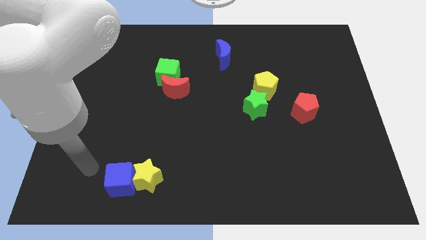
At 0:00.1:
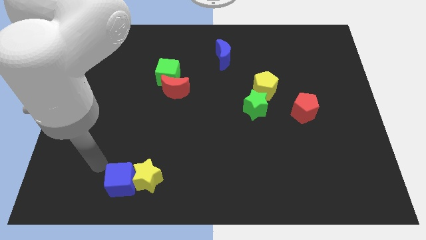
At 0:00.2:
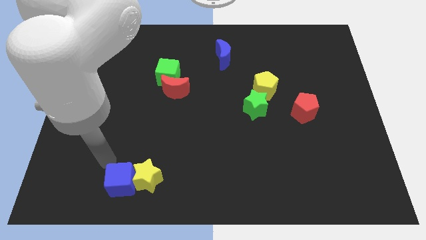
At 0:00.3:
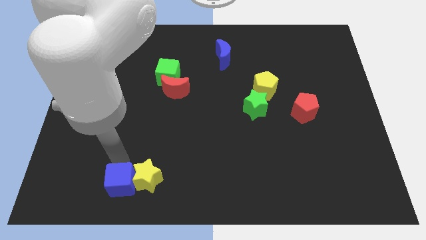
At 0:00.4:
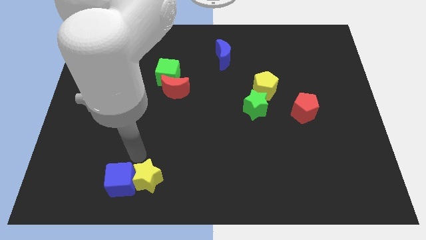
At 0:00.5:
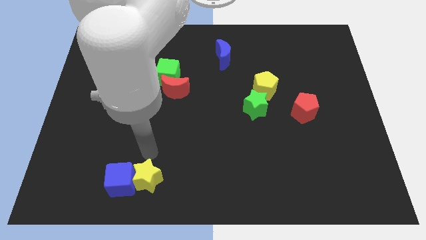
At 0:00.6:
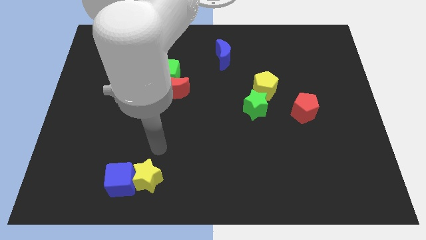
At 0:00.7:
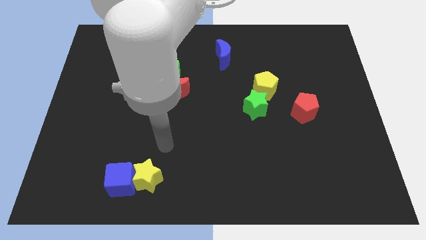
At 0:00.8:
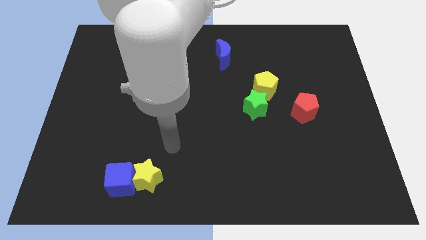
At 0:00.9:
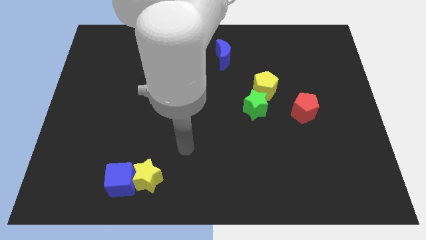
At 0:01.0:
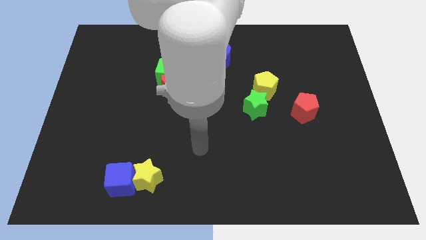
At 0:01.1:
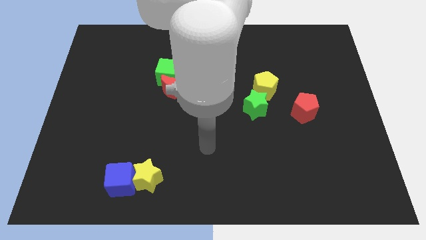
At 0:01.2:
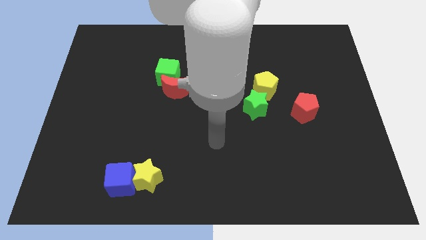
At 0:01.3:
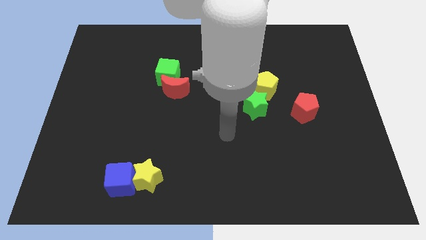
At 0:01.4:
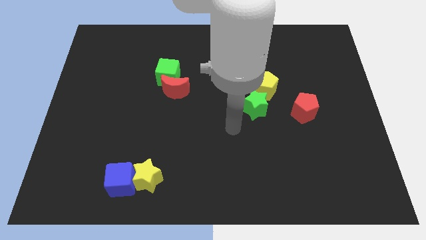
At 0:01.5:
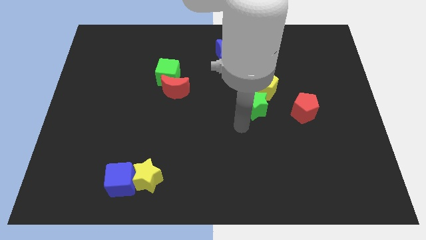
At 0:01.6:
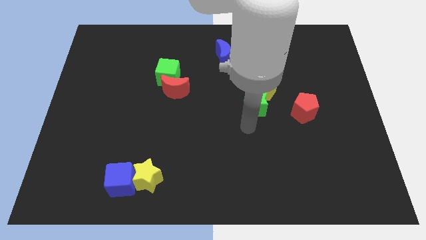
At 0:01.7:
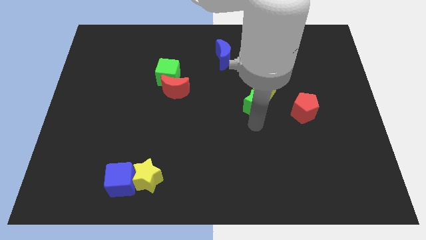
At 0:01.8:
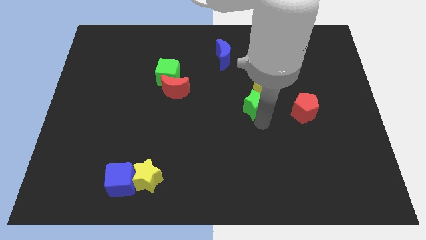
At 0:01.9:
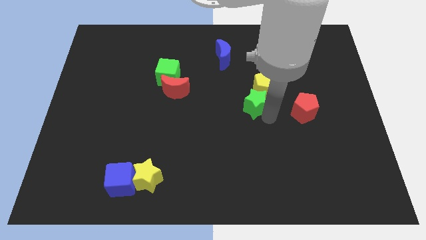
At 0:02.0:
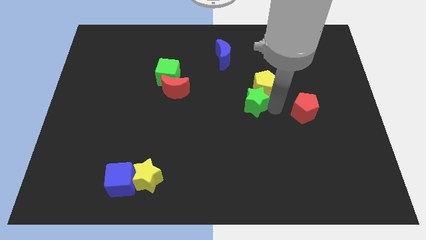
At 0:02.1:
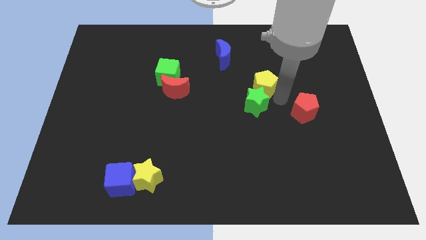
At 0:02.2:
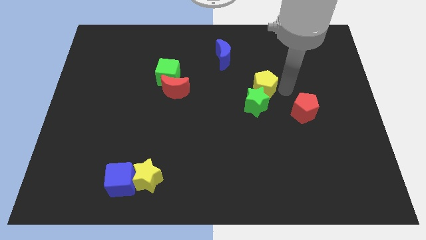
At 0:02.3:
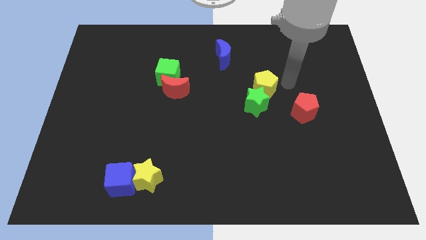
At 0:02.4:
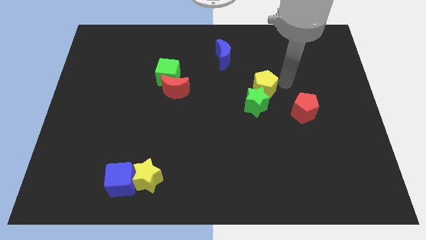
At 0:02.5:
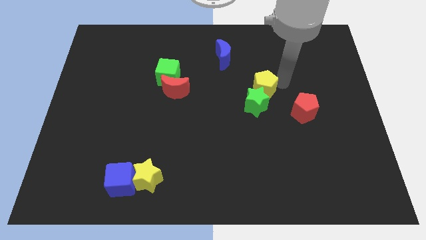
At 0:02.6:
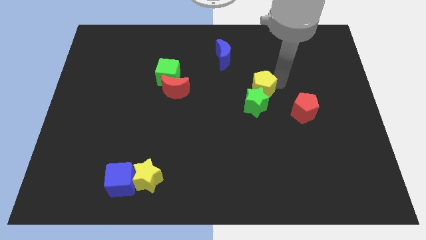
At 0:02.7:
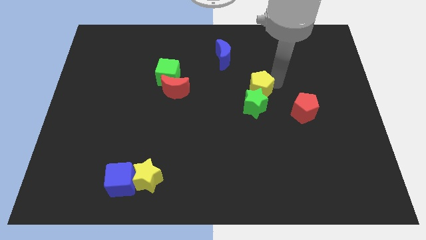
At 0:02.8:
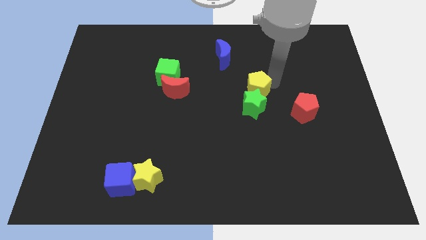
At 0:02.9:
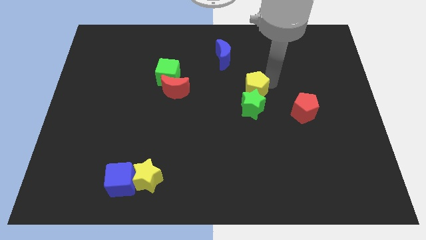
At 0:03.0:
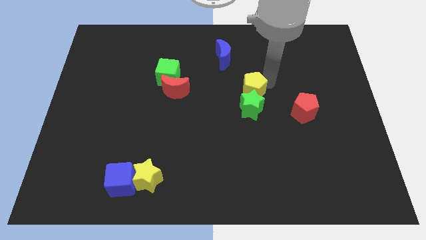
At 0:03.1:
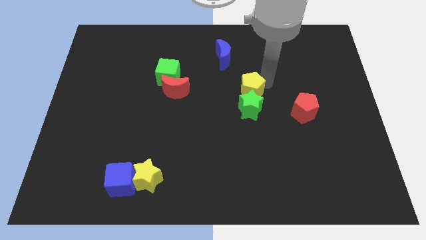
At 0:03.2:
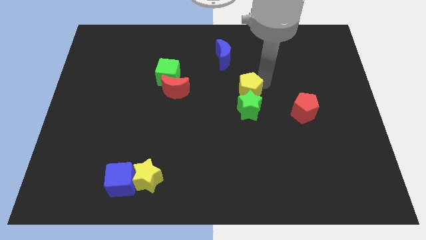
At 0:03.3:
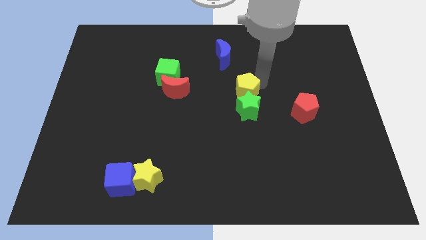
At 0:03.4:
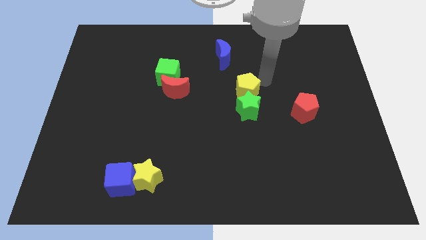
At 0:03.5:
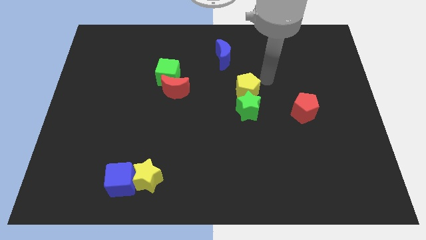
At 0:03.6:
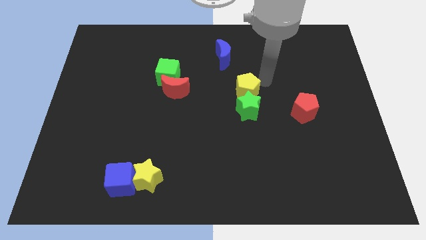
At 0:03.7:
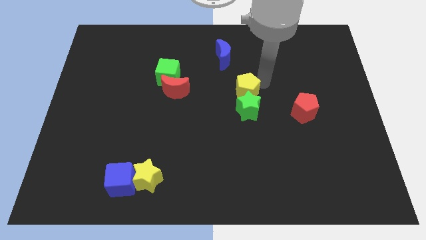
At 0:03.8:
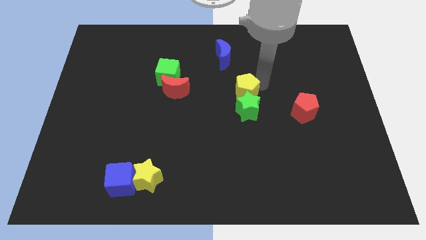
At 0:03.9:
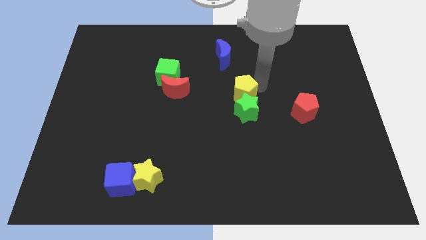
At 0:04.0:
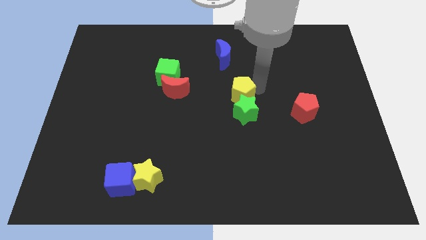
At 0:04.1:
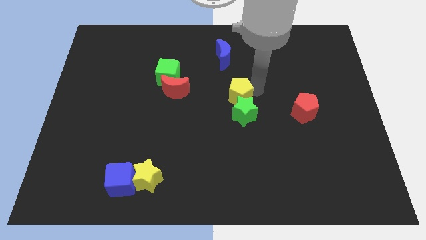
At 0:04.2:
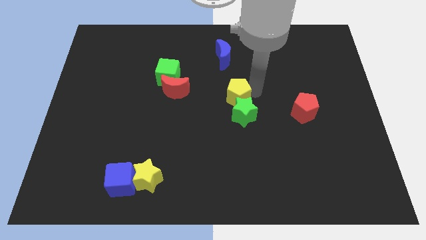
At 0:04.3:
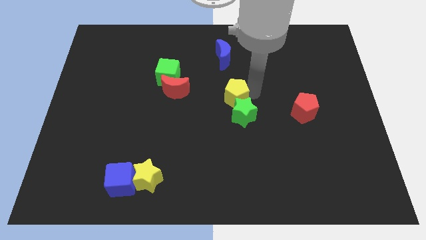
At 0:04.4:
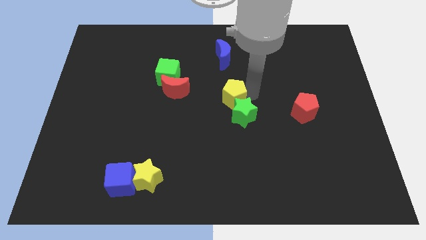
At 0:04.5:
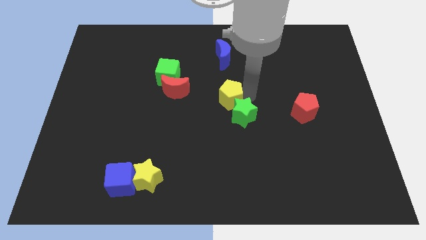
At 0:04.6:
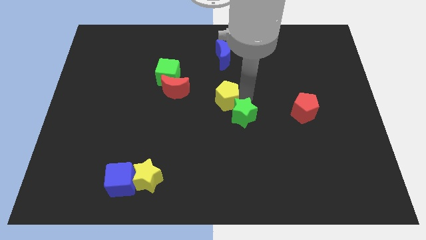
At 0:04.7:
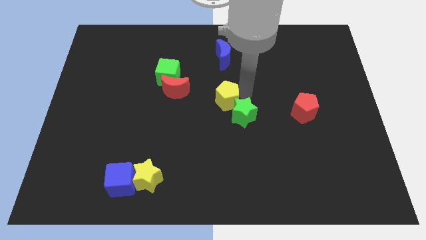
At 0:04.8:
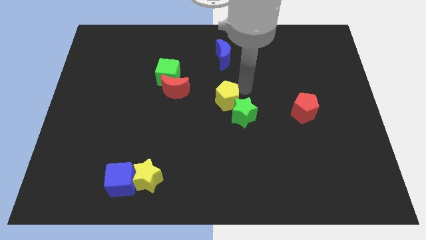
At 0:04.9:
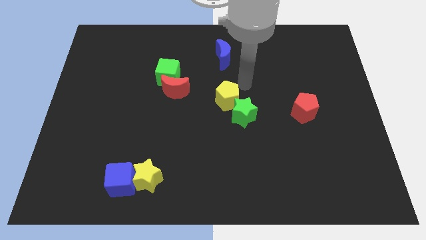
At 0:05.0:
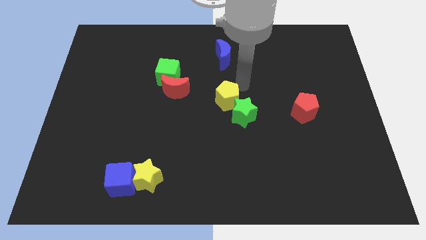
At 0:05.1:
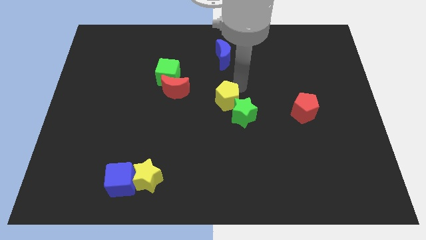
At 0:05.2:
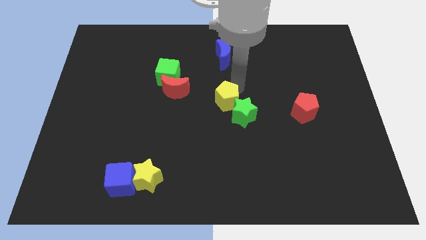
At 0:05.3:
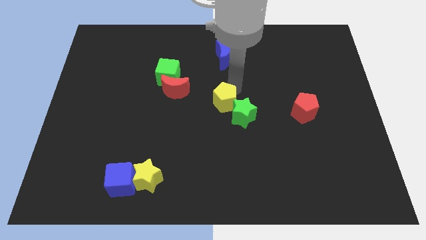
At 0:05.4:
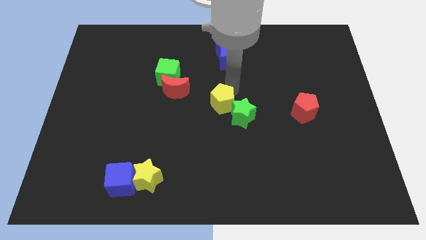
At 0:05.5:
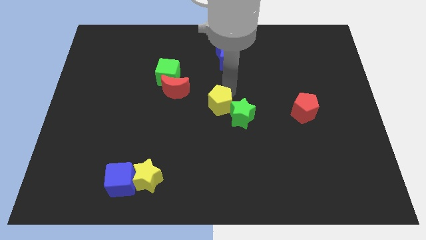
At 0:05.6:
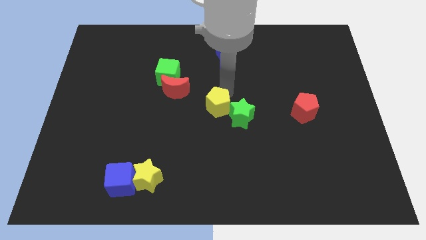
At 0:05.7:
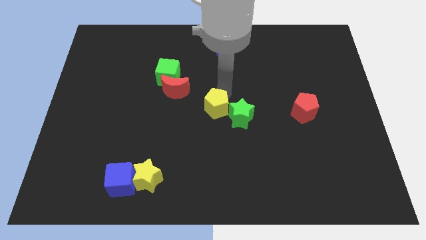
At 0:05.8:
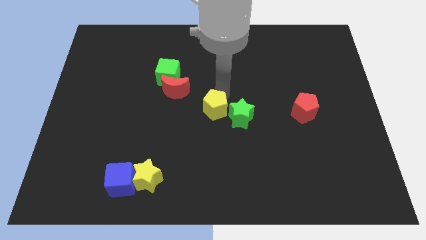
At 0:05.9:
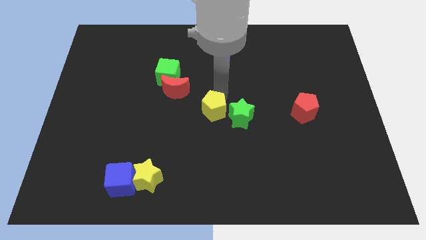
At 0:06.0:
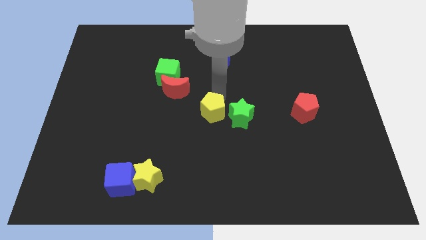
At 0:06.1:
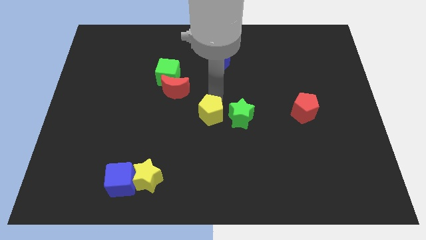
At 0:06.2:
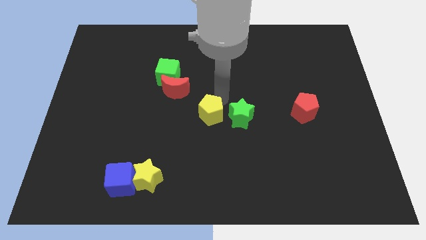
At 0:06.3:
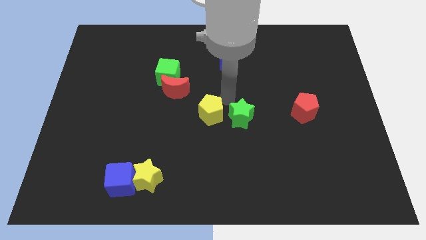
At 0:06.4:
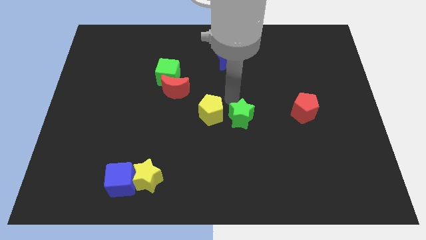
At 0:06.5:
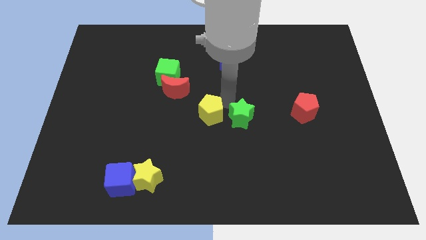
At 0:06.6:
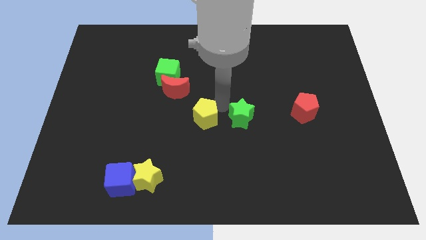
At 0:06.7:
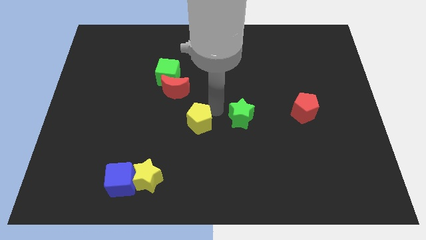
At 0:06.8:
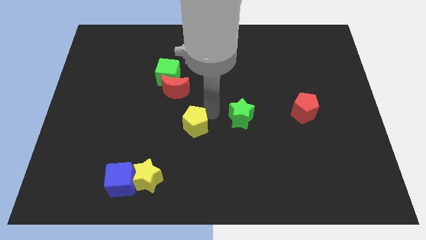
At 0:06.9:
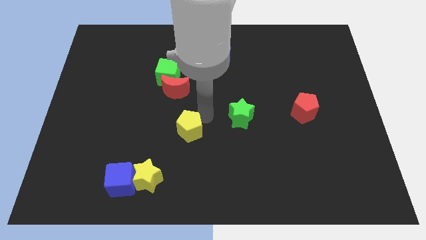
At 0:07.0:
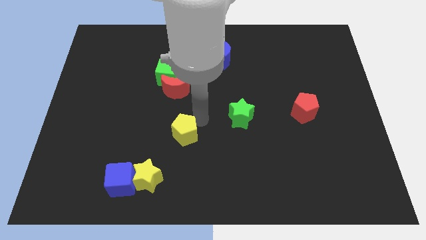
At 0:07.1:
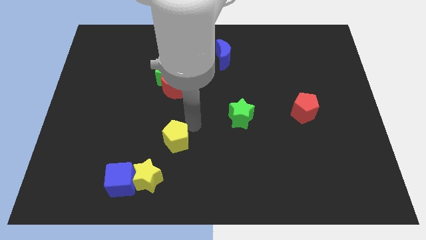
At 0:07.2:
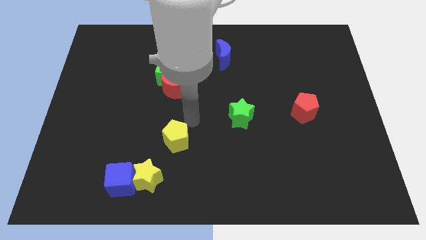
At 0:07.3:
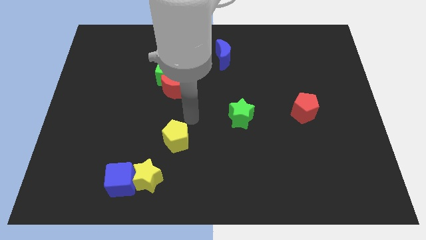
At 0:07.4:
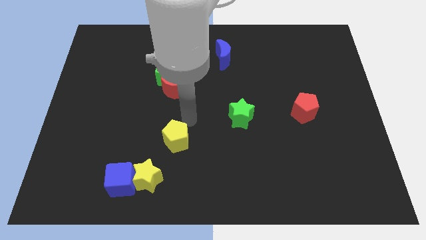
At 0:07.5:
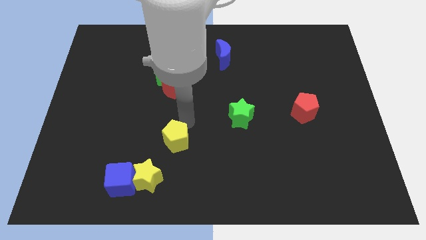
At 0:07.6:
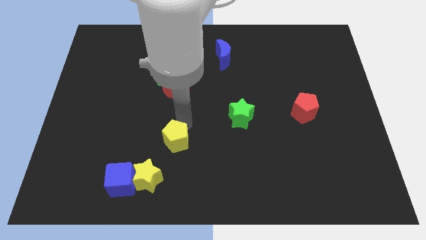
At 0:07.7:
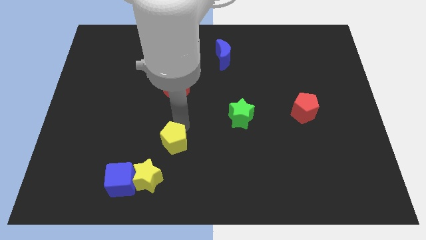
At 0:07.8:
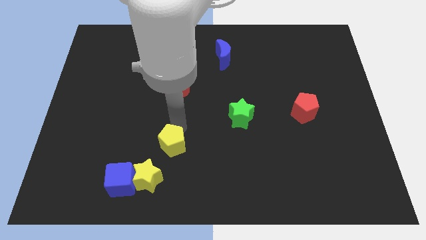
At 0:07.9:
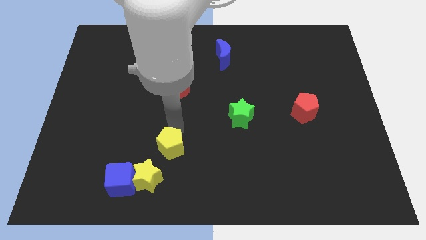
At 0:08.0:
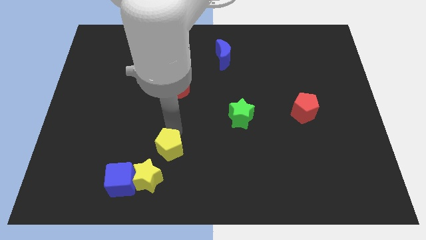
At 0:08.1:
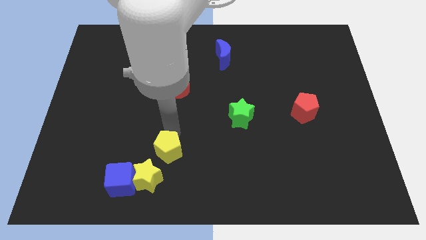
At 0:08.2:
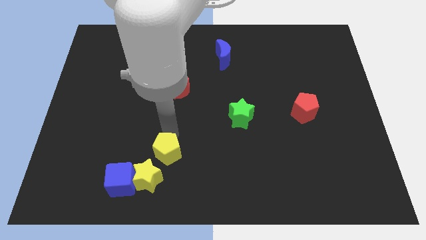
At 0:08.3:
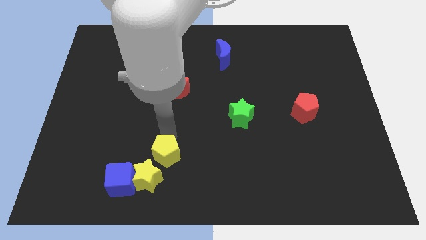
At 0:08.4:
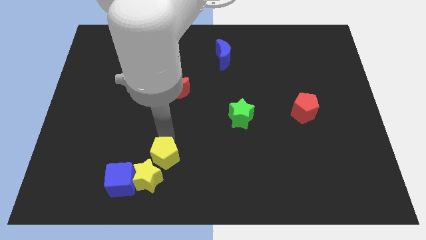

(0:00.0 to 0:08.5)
put the yellow pentagon towards the yellow star
